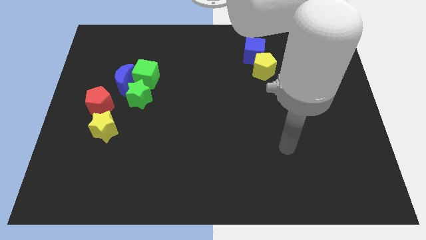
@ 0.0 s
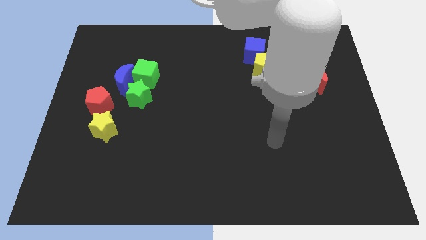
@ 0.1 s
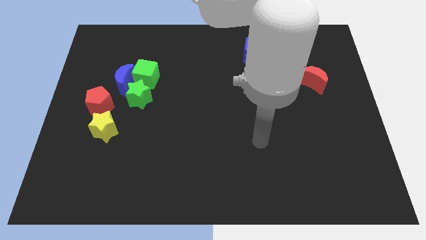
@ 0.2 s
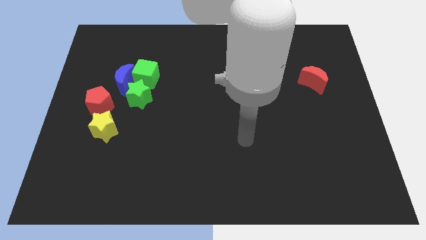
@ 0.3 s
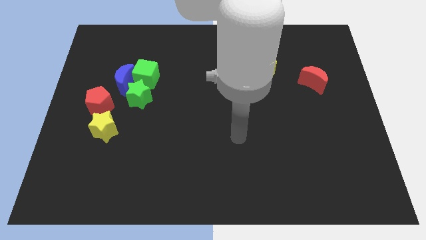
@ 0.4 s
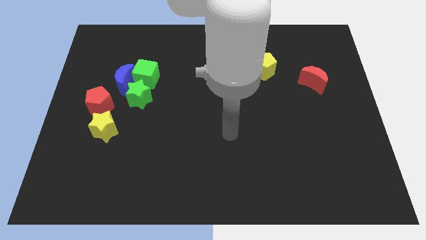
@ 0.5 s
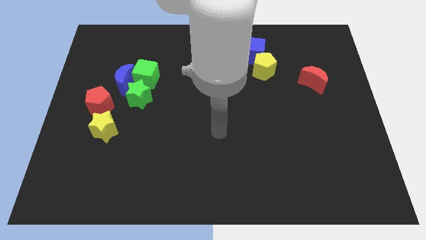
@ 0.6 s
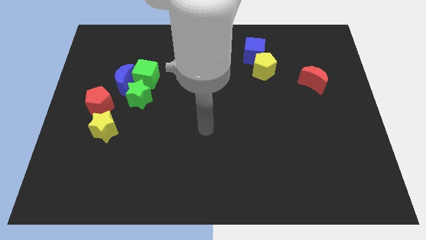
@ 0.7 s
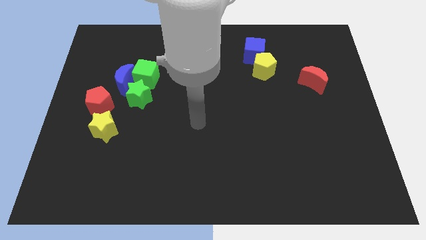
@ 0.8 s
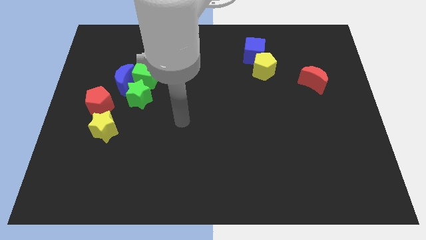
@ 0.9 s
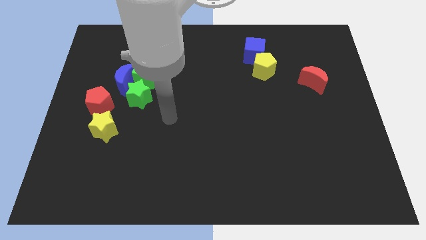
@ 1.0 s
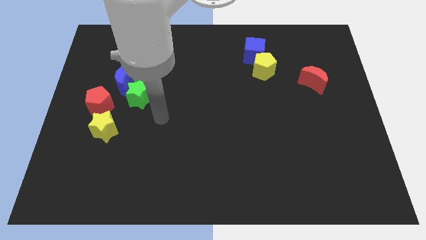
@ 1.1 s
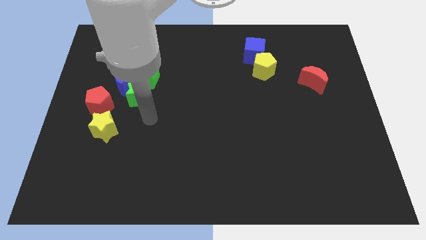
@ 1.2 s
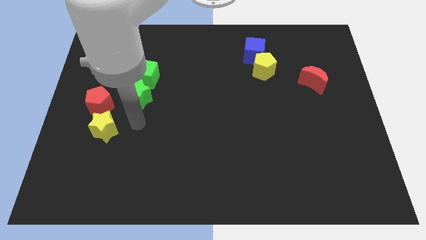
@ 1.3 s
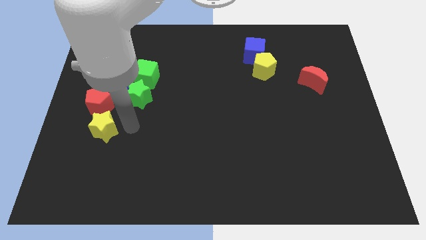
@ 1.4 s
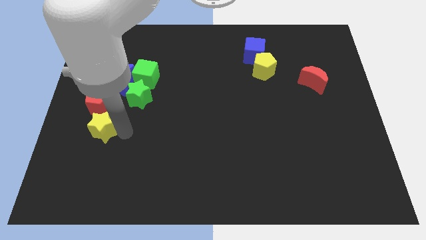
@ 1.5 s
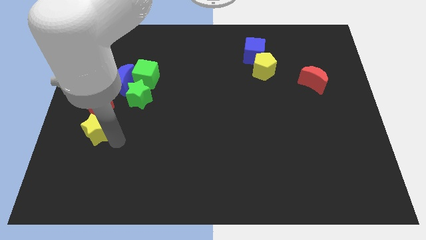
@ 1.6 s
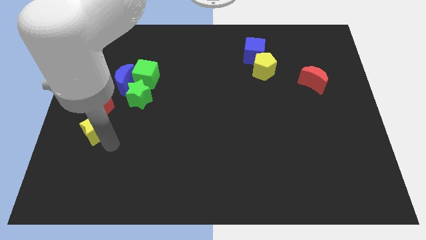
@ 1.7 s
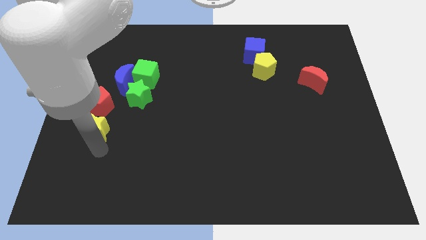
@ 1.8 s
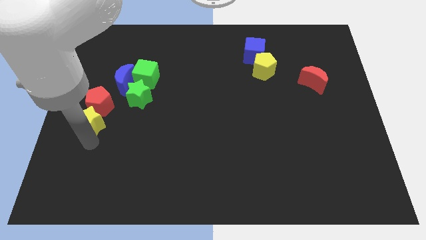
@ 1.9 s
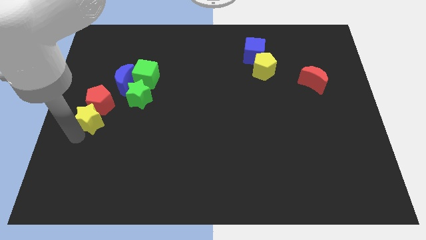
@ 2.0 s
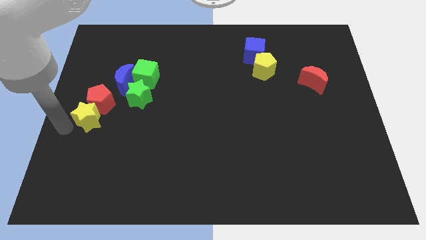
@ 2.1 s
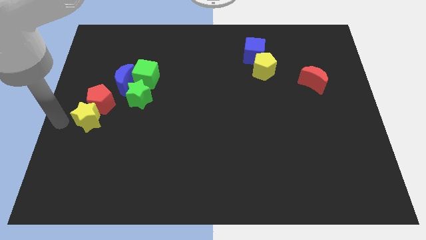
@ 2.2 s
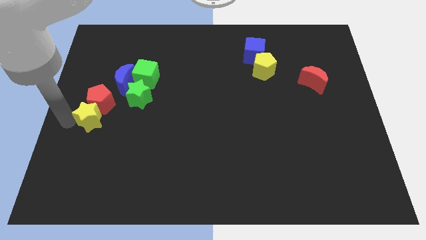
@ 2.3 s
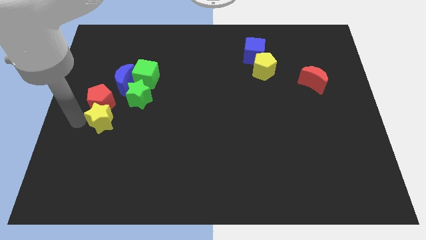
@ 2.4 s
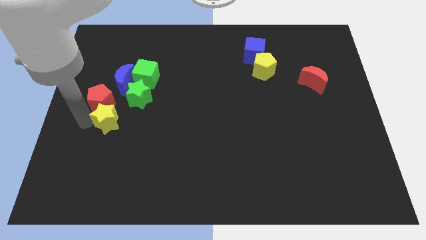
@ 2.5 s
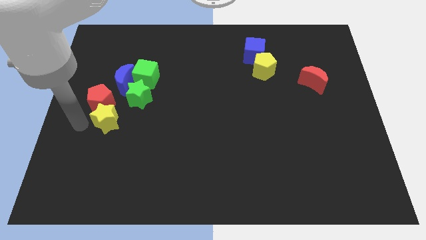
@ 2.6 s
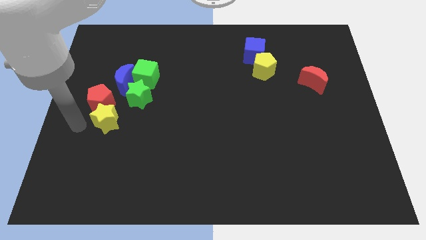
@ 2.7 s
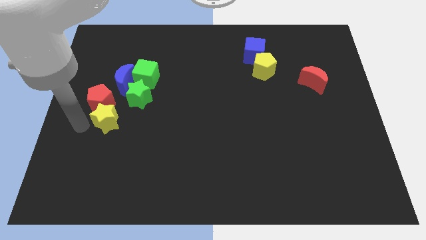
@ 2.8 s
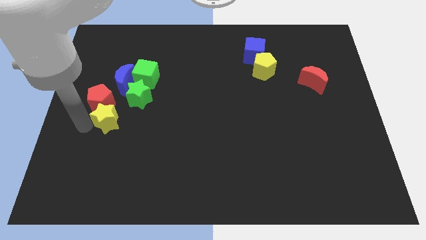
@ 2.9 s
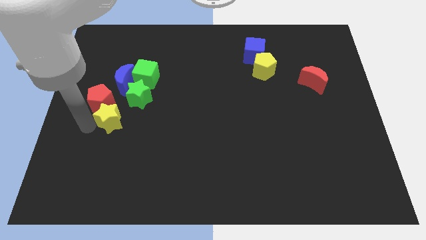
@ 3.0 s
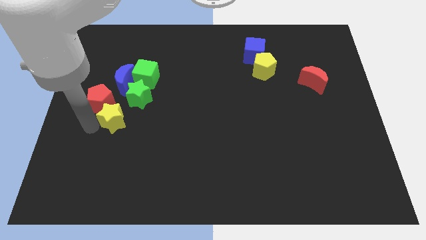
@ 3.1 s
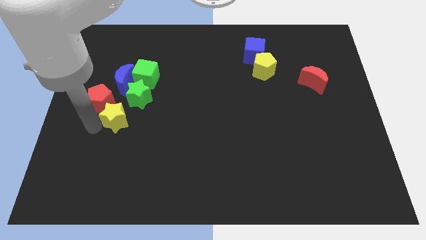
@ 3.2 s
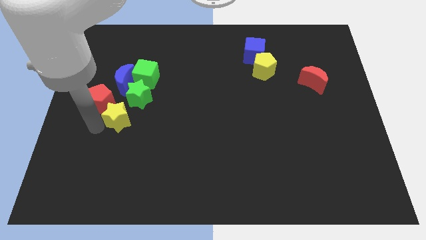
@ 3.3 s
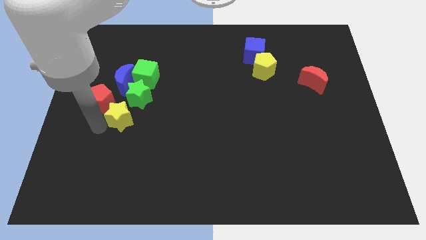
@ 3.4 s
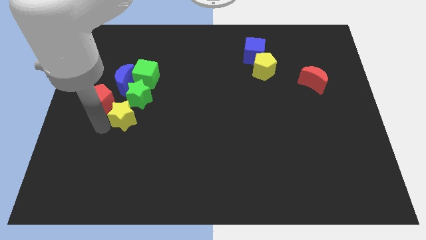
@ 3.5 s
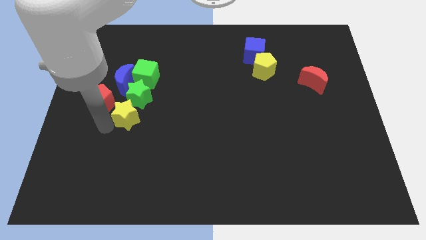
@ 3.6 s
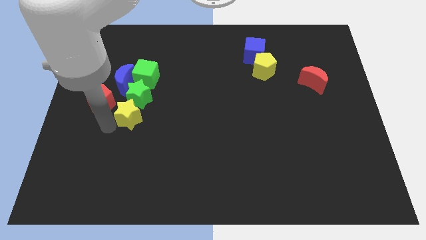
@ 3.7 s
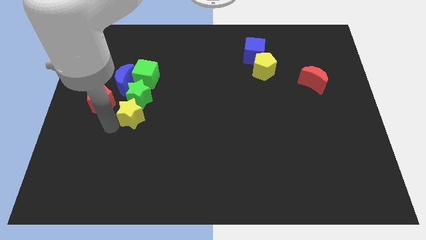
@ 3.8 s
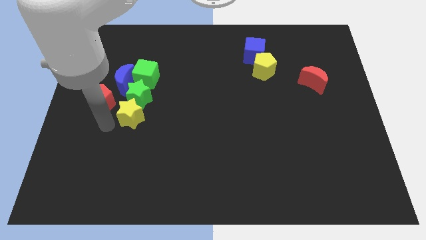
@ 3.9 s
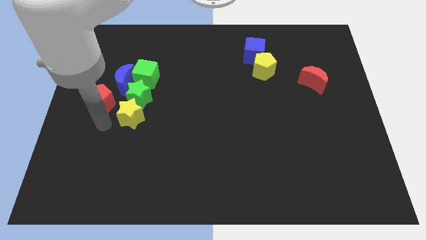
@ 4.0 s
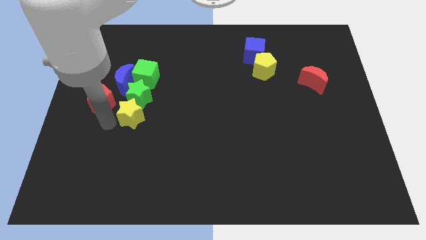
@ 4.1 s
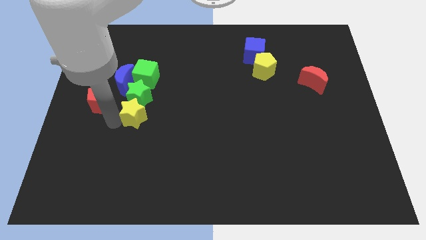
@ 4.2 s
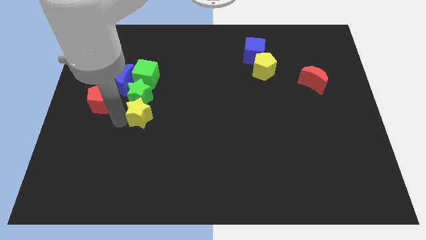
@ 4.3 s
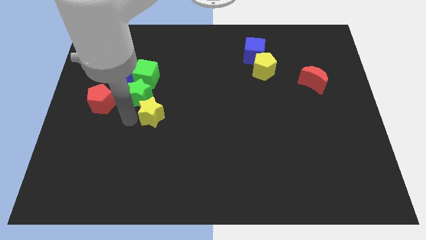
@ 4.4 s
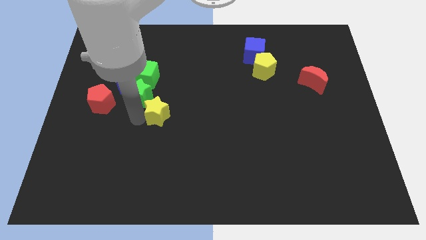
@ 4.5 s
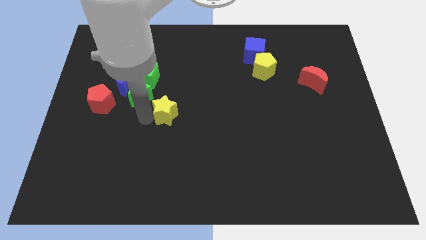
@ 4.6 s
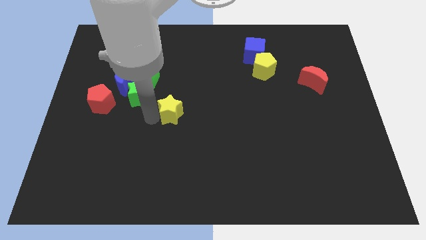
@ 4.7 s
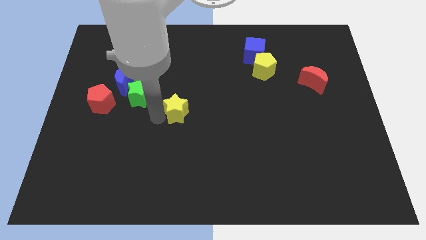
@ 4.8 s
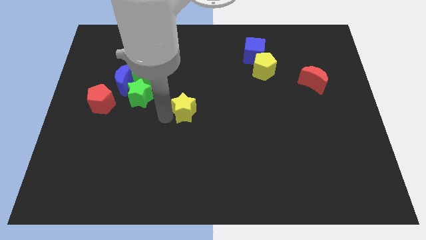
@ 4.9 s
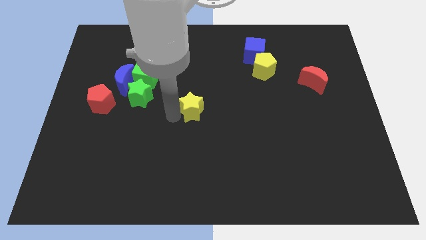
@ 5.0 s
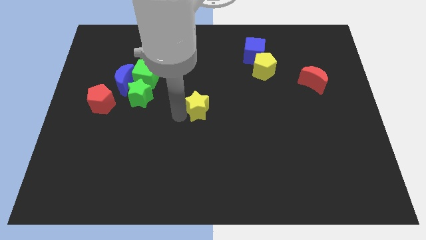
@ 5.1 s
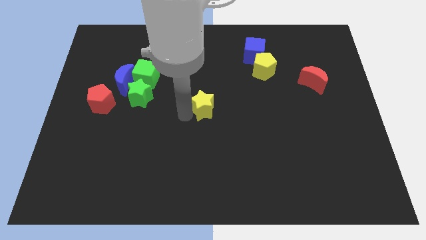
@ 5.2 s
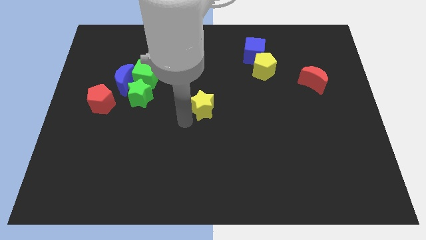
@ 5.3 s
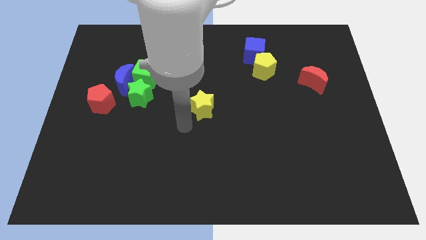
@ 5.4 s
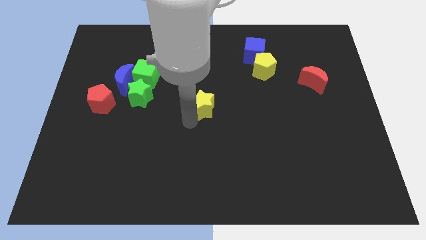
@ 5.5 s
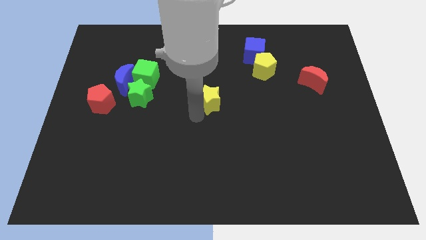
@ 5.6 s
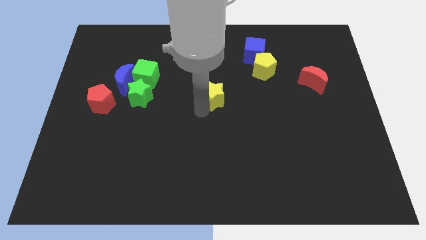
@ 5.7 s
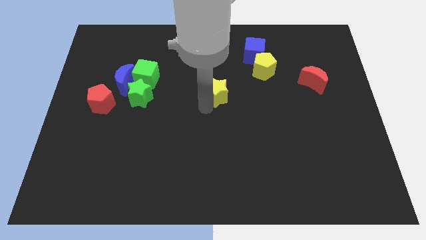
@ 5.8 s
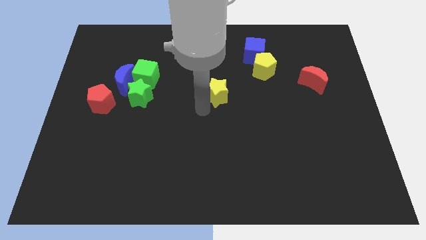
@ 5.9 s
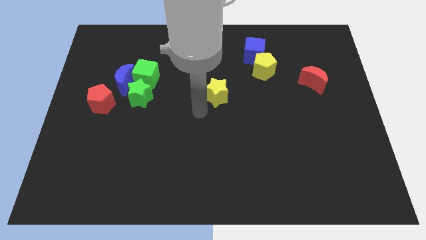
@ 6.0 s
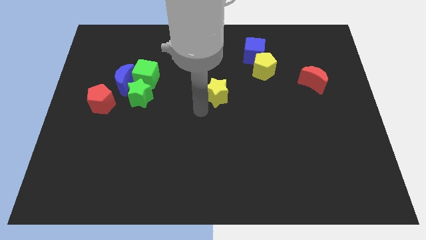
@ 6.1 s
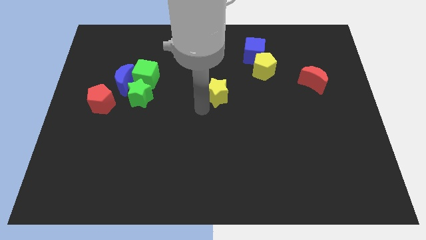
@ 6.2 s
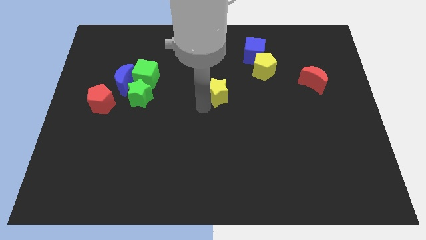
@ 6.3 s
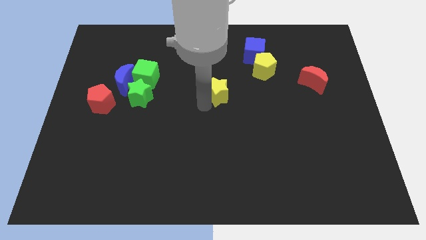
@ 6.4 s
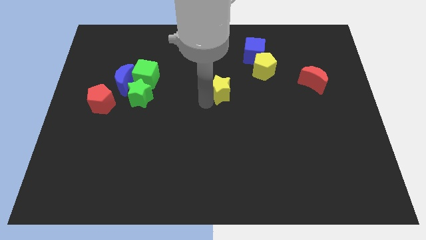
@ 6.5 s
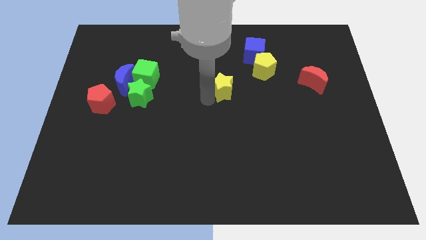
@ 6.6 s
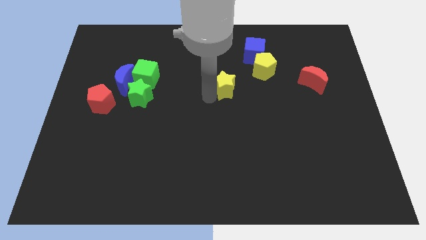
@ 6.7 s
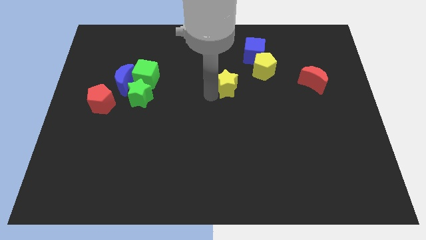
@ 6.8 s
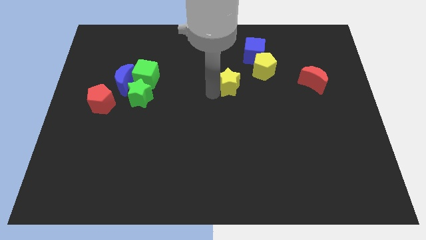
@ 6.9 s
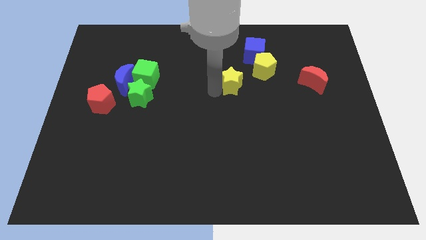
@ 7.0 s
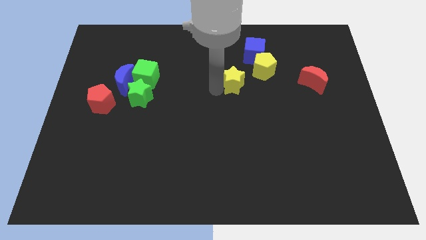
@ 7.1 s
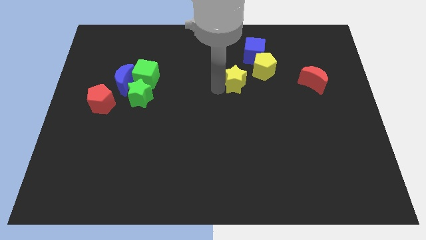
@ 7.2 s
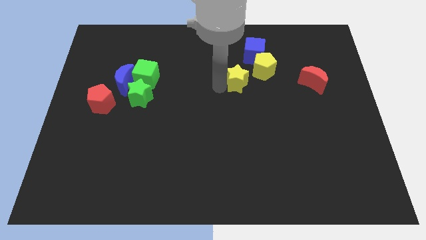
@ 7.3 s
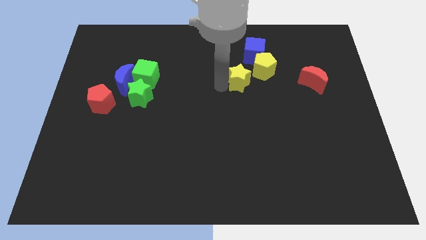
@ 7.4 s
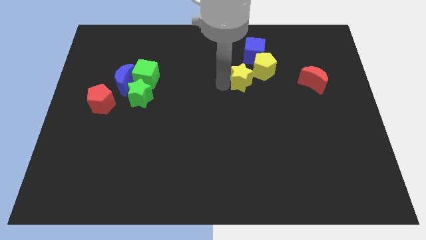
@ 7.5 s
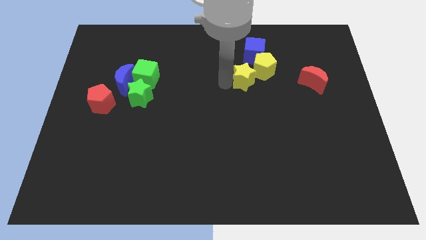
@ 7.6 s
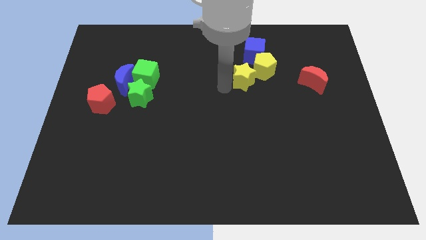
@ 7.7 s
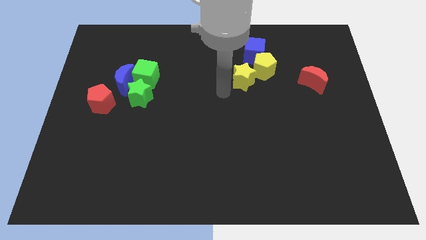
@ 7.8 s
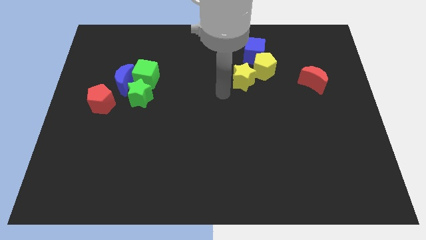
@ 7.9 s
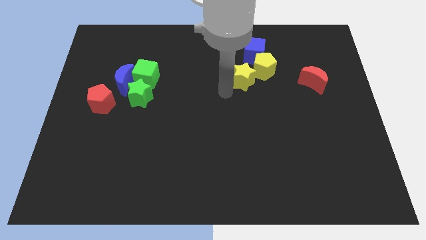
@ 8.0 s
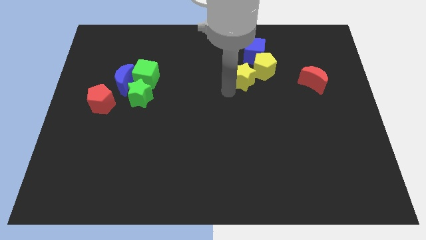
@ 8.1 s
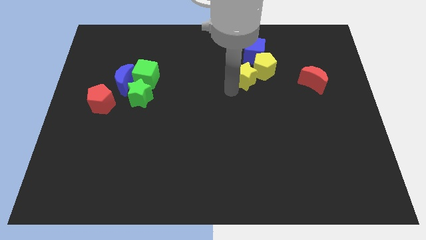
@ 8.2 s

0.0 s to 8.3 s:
slide the yellow star close to the yellow pentagon
